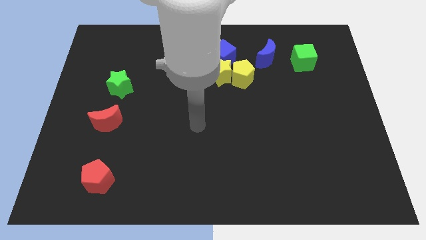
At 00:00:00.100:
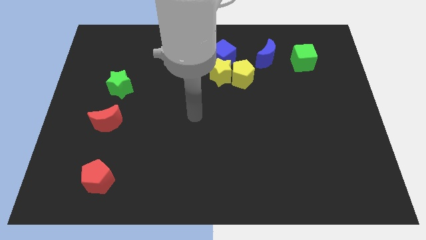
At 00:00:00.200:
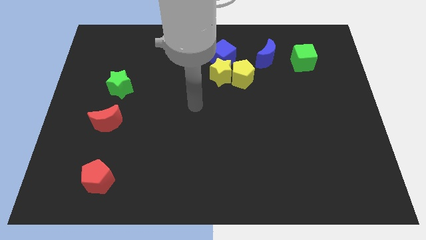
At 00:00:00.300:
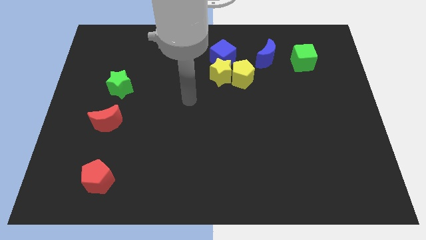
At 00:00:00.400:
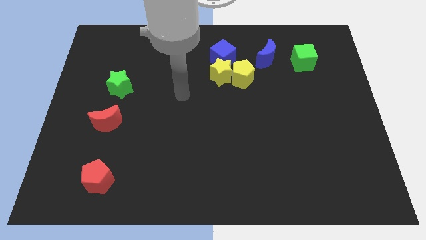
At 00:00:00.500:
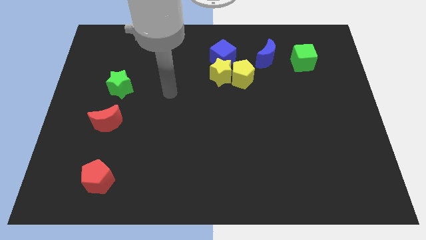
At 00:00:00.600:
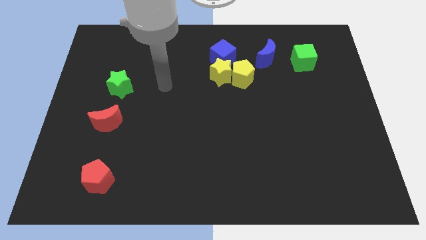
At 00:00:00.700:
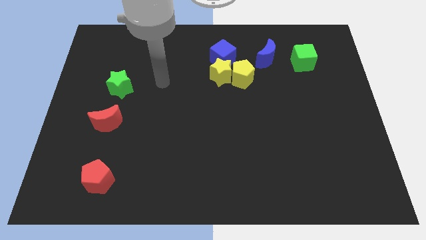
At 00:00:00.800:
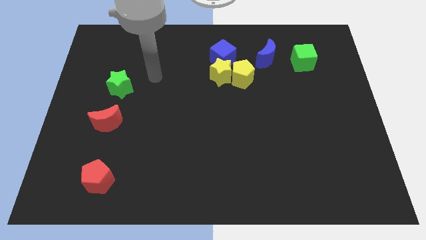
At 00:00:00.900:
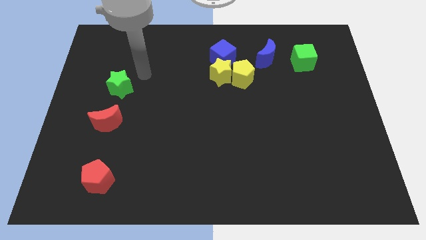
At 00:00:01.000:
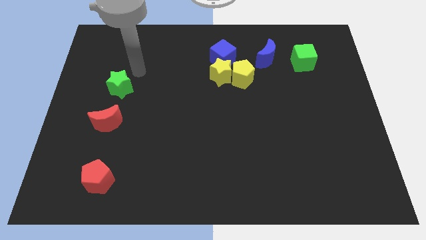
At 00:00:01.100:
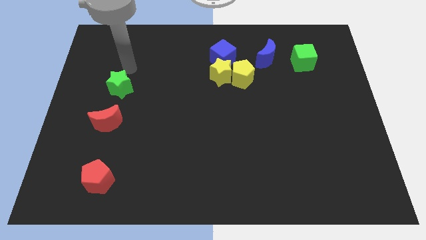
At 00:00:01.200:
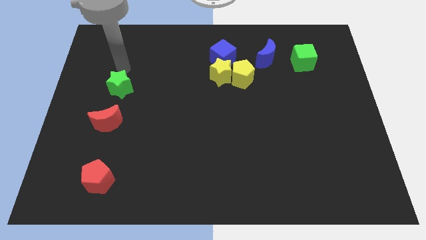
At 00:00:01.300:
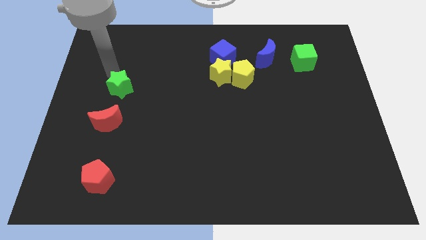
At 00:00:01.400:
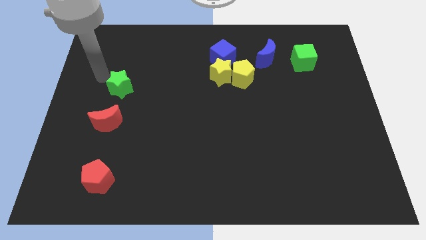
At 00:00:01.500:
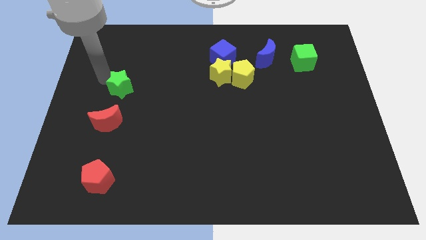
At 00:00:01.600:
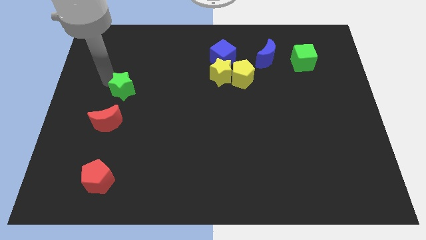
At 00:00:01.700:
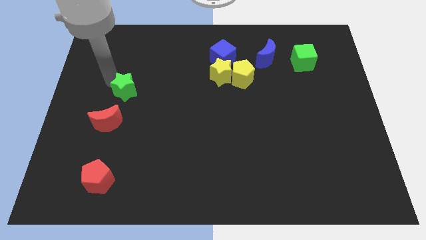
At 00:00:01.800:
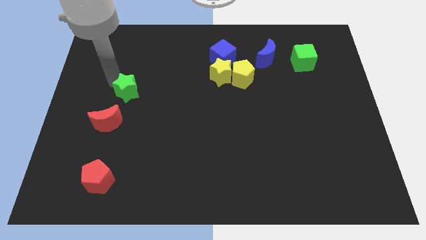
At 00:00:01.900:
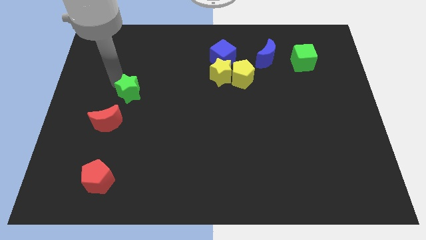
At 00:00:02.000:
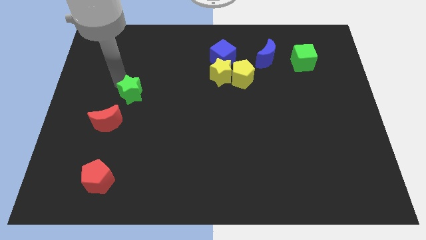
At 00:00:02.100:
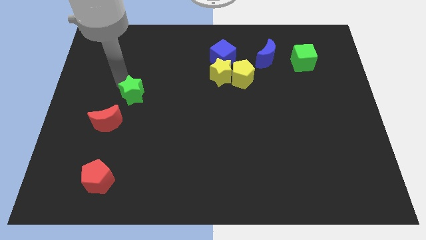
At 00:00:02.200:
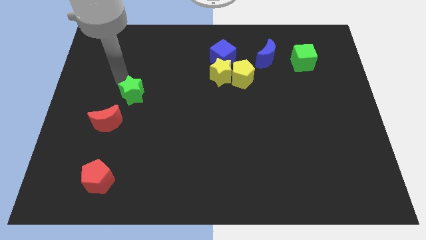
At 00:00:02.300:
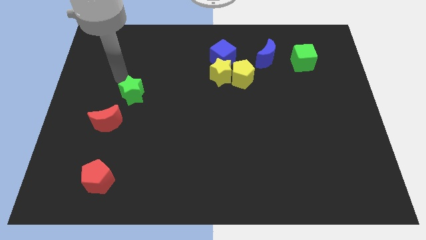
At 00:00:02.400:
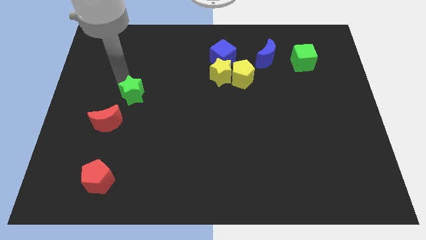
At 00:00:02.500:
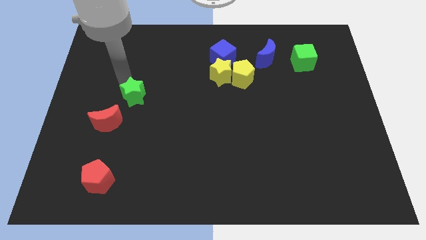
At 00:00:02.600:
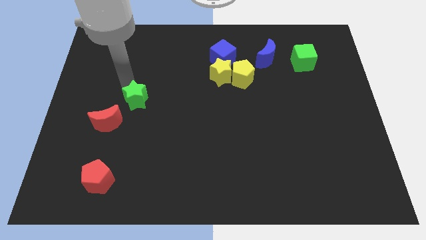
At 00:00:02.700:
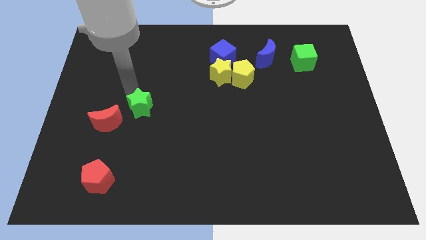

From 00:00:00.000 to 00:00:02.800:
push the green star down and right diagonally a little bit

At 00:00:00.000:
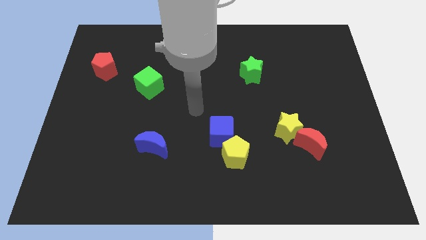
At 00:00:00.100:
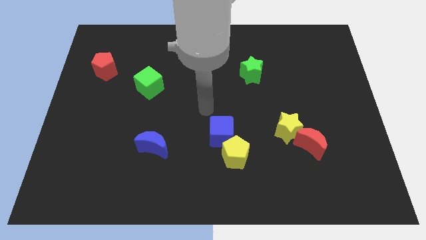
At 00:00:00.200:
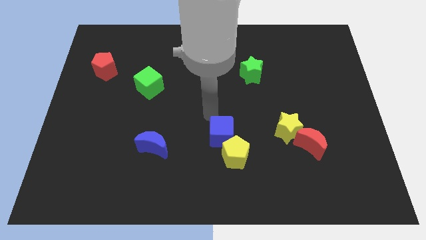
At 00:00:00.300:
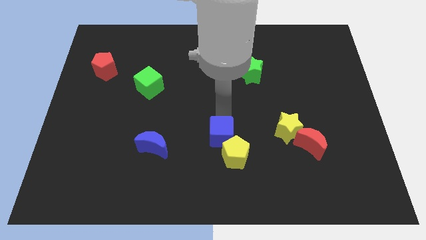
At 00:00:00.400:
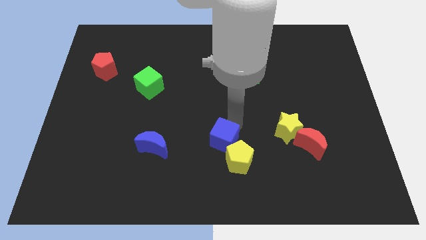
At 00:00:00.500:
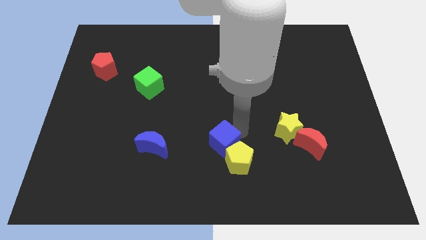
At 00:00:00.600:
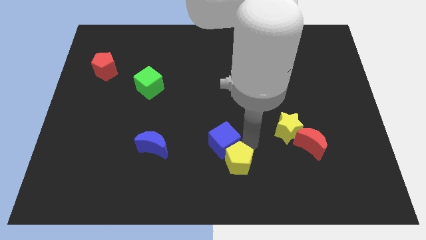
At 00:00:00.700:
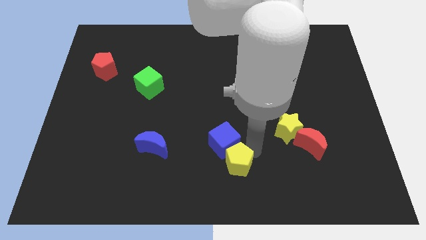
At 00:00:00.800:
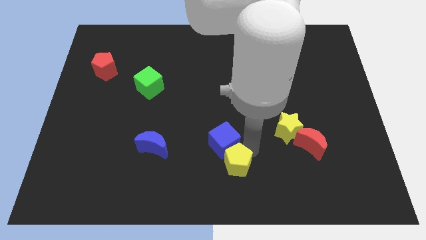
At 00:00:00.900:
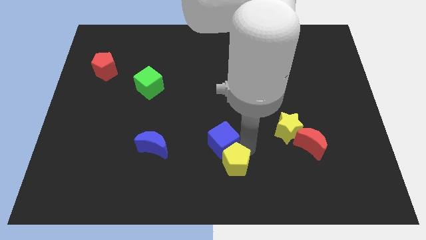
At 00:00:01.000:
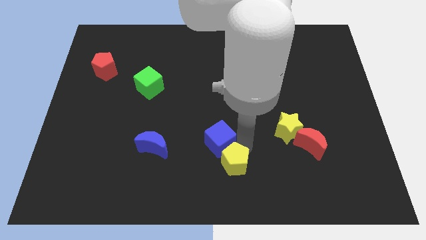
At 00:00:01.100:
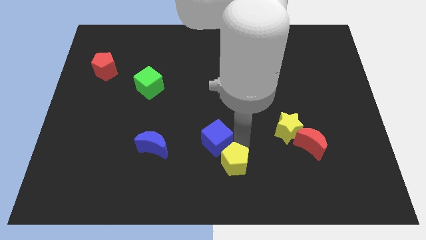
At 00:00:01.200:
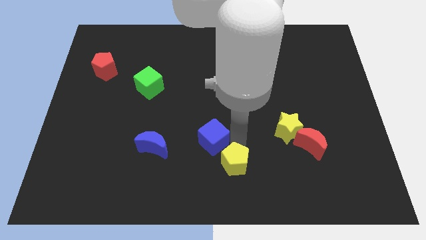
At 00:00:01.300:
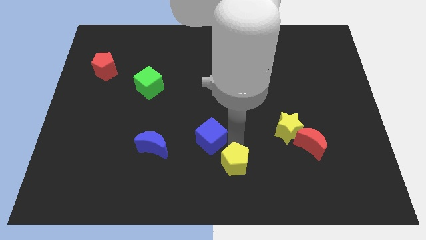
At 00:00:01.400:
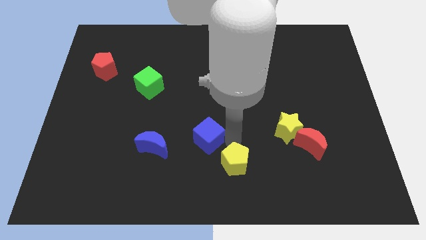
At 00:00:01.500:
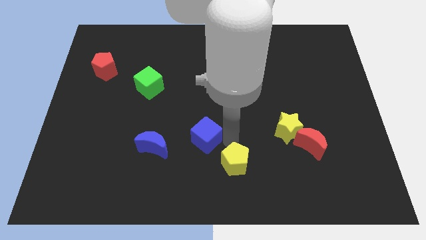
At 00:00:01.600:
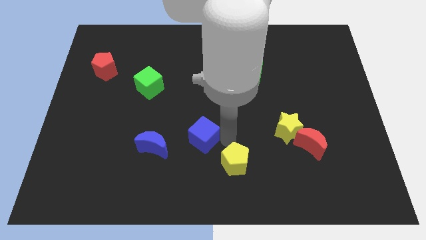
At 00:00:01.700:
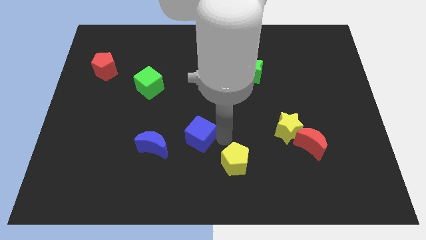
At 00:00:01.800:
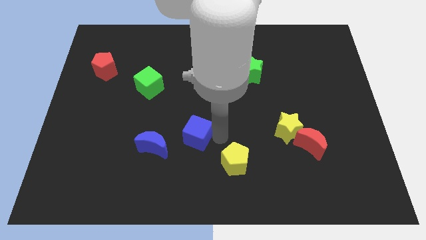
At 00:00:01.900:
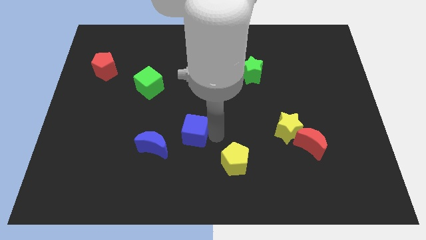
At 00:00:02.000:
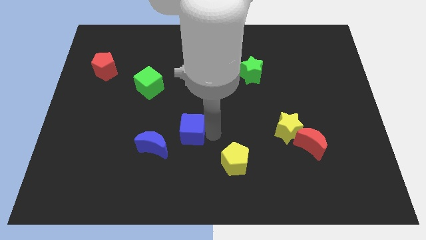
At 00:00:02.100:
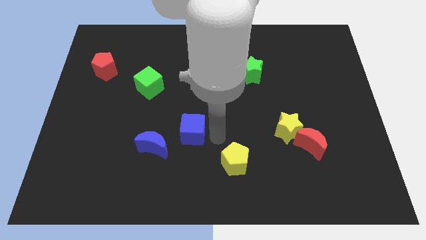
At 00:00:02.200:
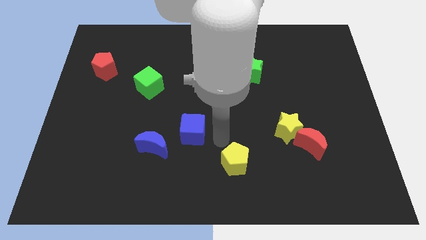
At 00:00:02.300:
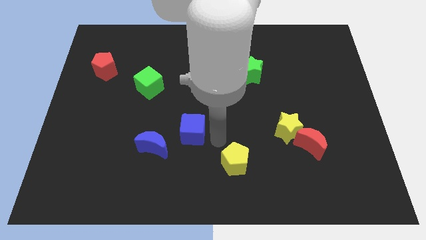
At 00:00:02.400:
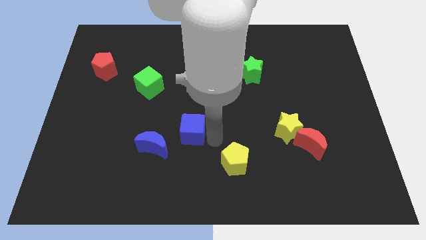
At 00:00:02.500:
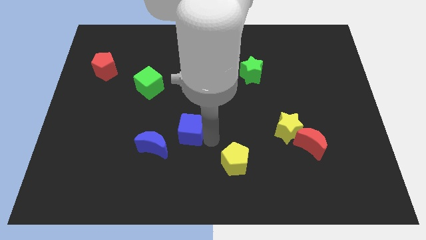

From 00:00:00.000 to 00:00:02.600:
slightly move the blue cube left

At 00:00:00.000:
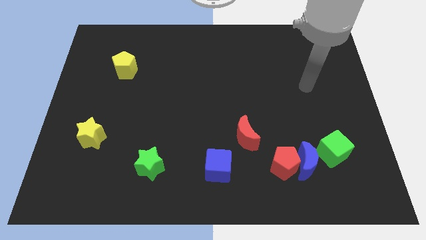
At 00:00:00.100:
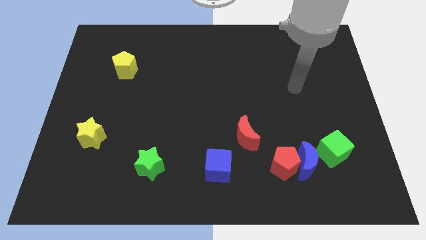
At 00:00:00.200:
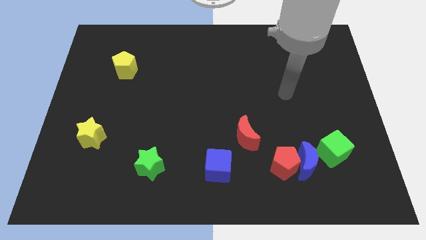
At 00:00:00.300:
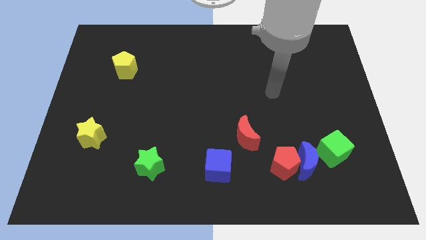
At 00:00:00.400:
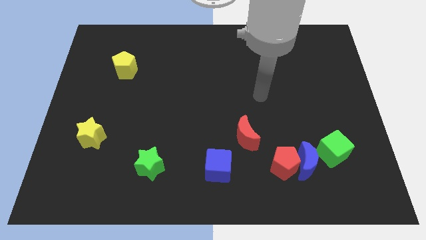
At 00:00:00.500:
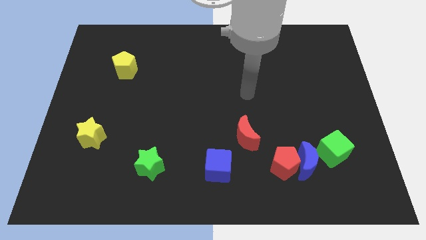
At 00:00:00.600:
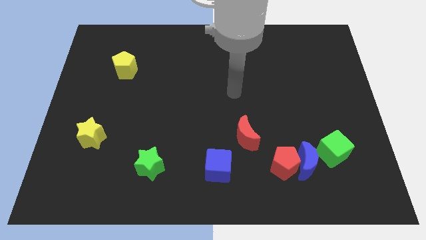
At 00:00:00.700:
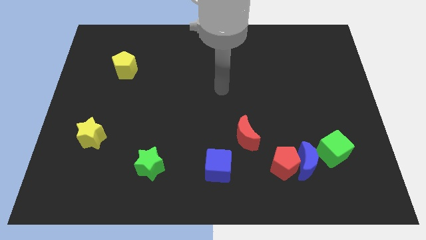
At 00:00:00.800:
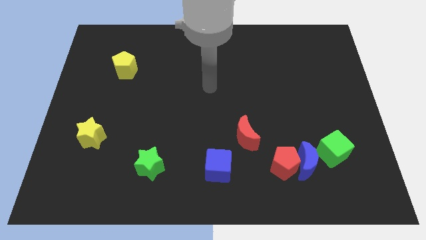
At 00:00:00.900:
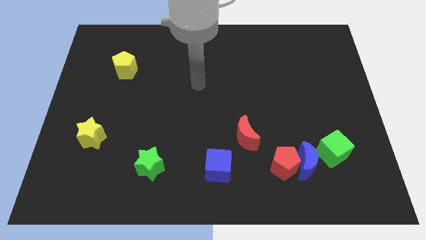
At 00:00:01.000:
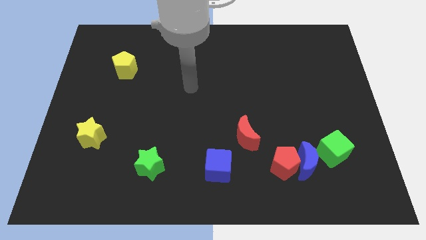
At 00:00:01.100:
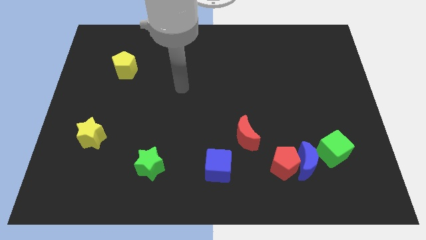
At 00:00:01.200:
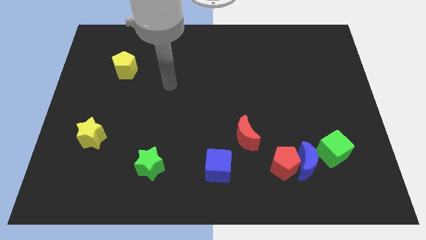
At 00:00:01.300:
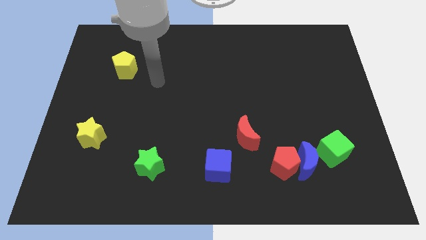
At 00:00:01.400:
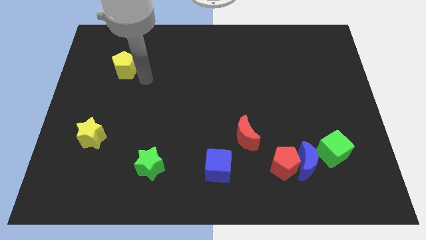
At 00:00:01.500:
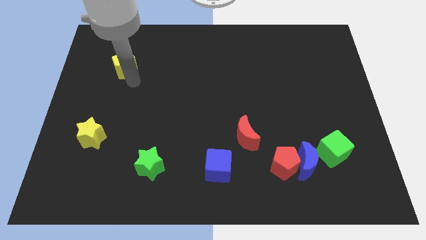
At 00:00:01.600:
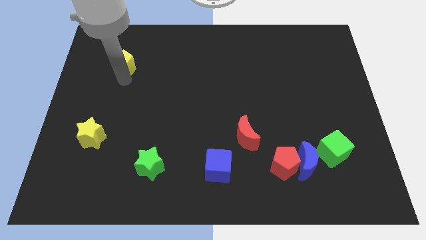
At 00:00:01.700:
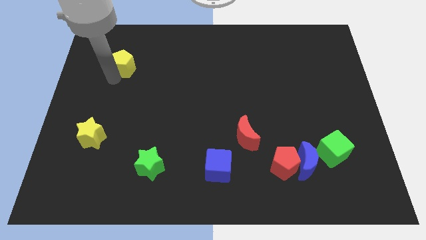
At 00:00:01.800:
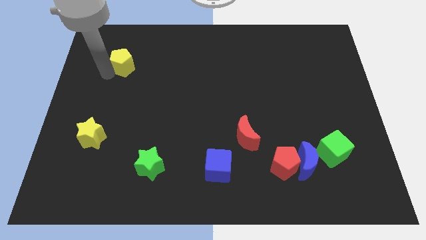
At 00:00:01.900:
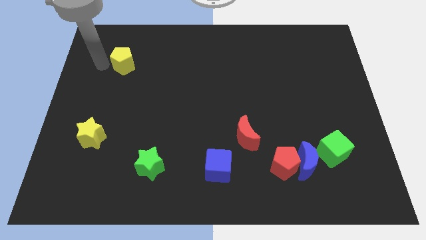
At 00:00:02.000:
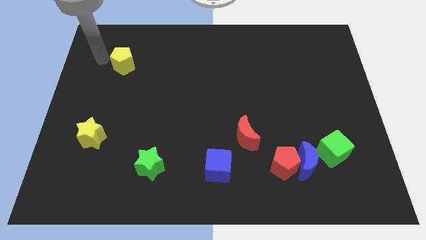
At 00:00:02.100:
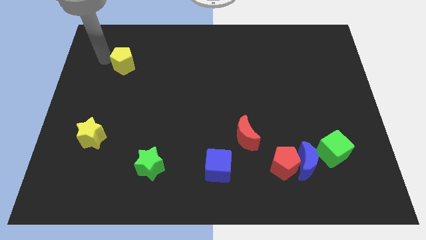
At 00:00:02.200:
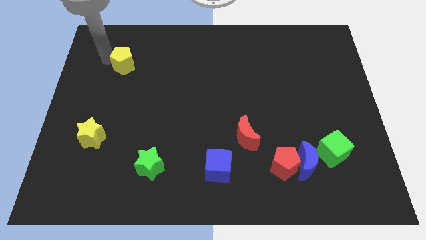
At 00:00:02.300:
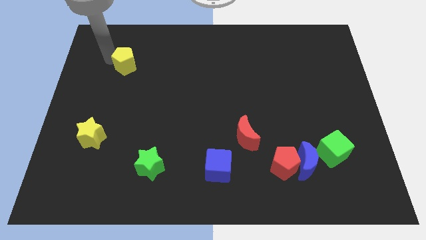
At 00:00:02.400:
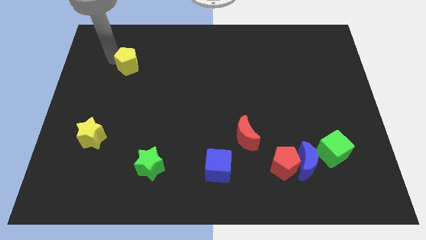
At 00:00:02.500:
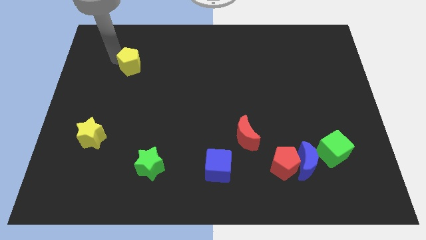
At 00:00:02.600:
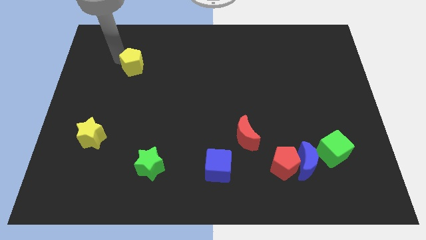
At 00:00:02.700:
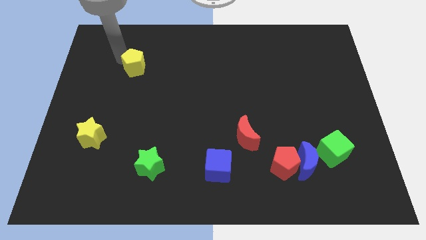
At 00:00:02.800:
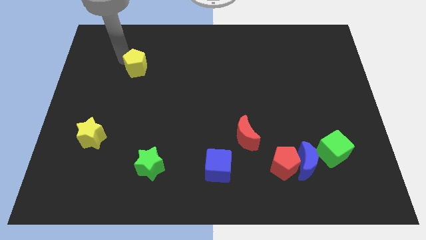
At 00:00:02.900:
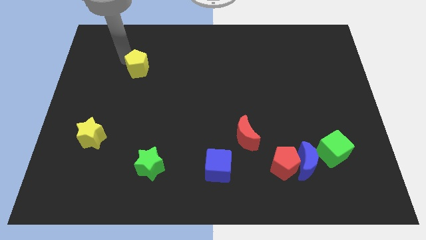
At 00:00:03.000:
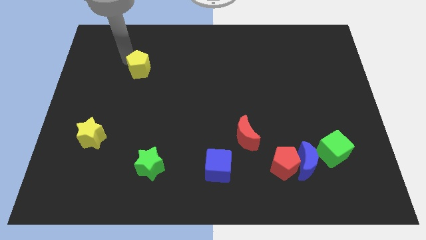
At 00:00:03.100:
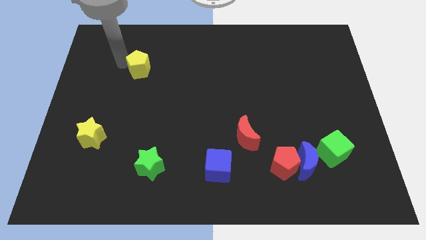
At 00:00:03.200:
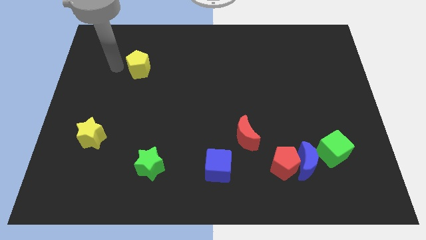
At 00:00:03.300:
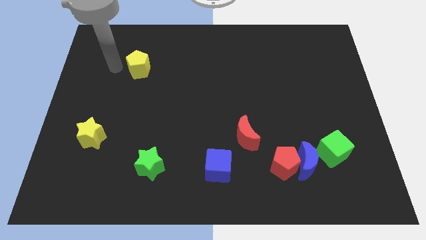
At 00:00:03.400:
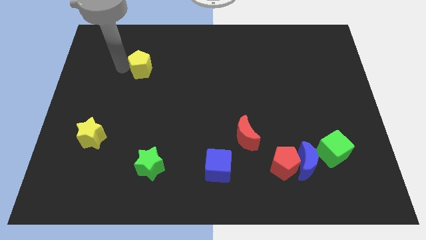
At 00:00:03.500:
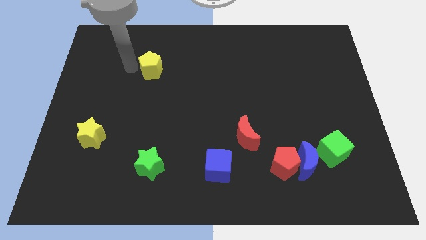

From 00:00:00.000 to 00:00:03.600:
slightly move the yellow pentagon right
